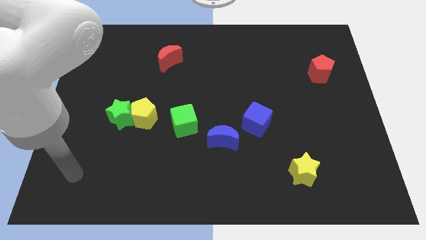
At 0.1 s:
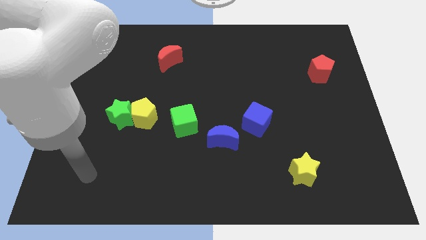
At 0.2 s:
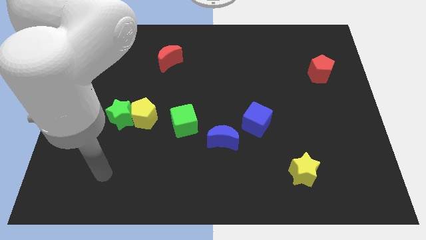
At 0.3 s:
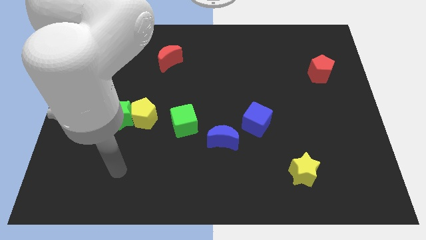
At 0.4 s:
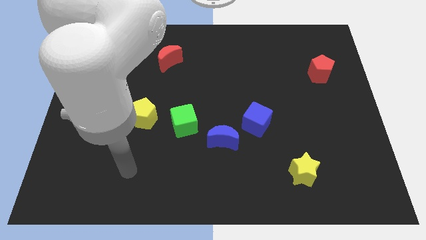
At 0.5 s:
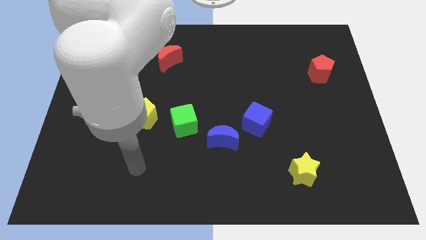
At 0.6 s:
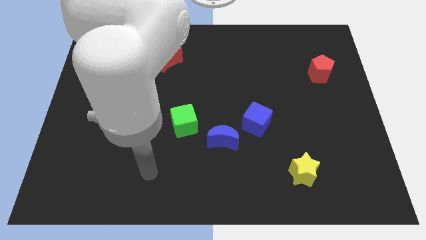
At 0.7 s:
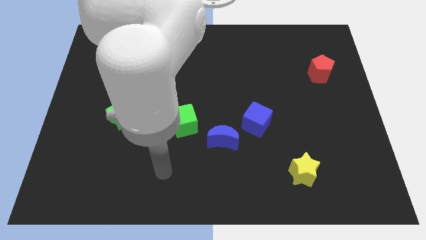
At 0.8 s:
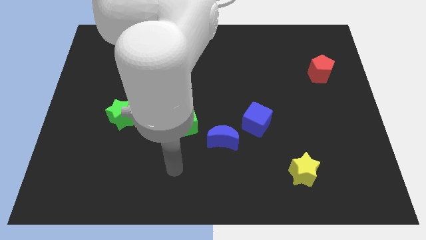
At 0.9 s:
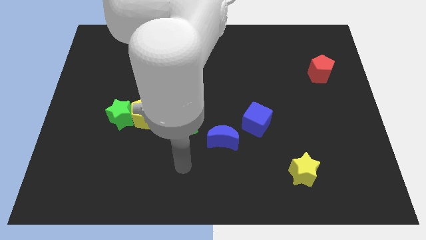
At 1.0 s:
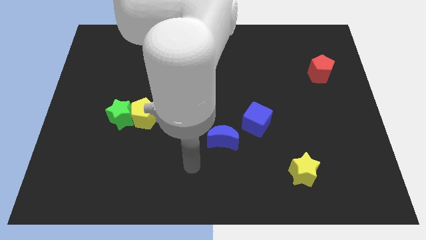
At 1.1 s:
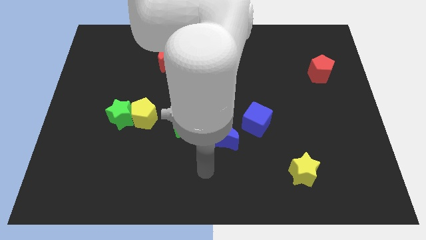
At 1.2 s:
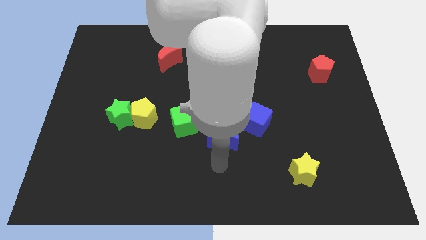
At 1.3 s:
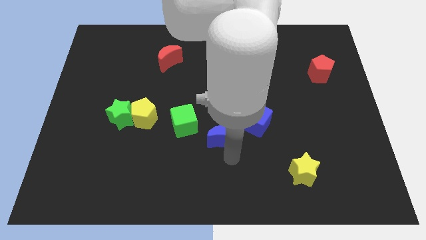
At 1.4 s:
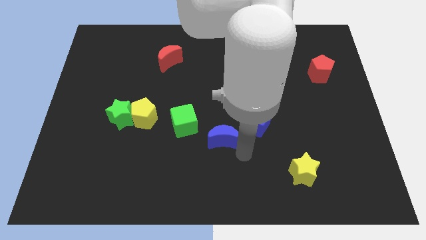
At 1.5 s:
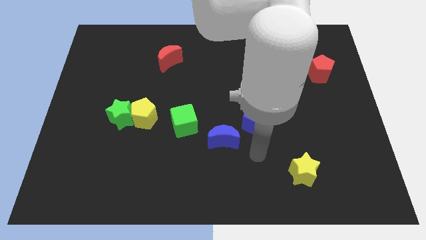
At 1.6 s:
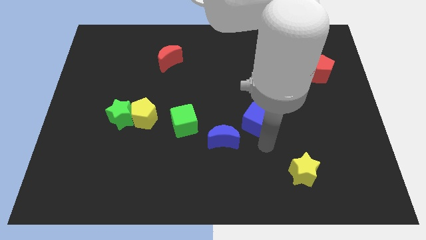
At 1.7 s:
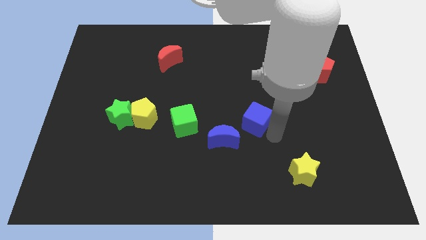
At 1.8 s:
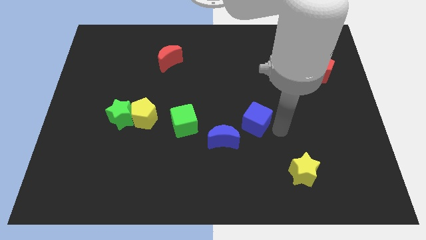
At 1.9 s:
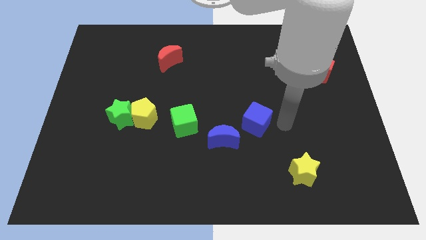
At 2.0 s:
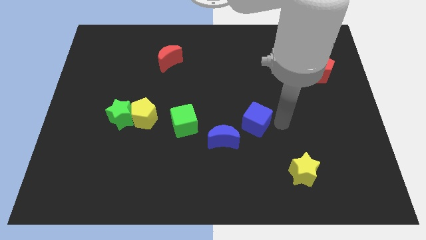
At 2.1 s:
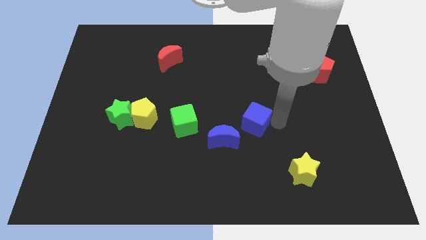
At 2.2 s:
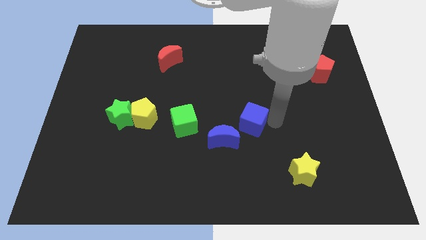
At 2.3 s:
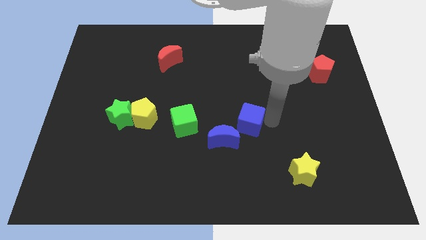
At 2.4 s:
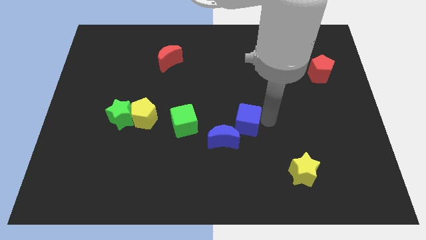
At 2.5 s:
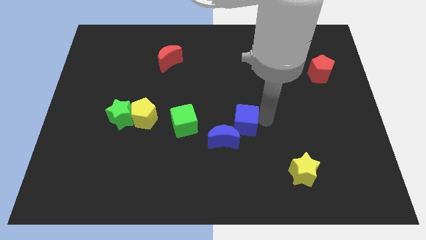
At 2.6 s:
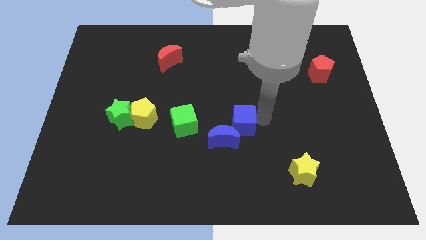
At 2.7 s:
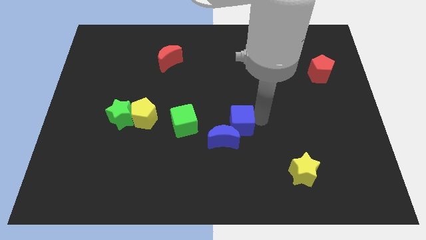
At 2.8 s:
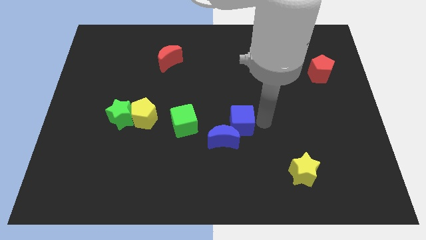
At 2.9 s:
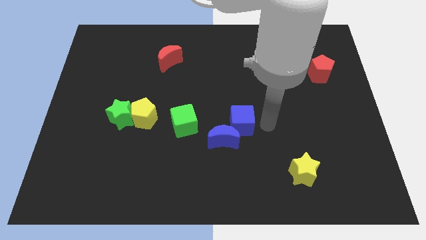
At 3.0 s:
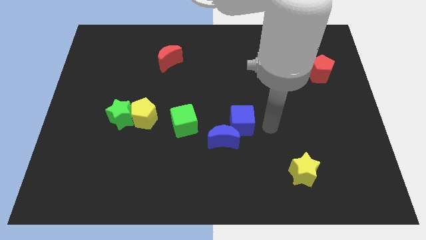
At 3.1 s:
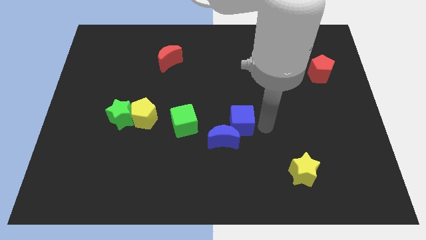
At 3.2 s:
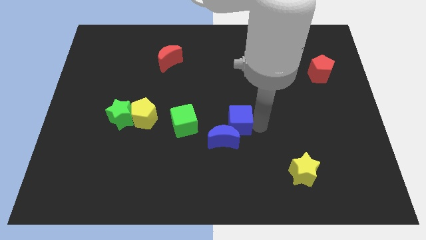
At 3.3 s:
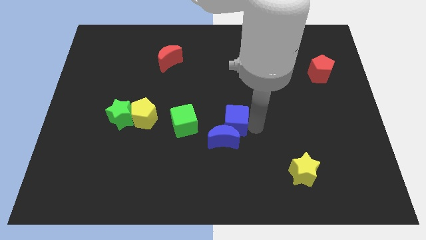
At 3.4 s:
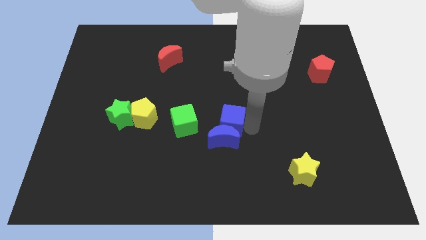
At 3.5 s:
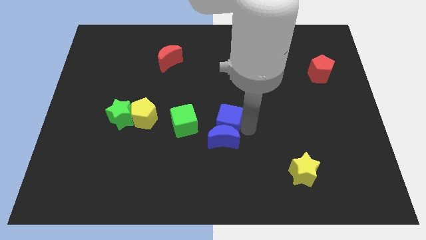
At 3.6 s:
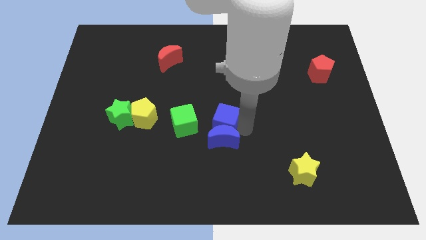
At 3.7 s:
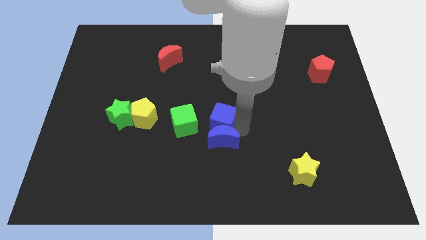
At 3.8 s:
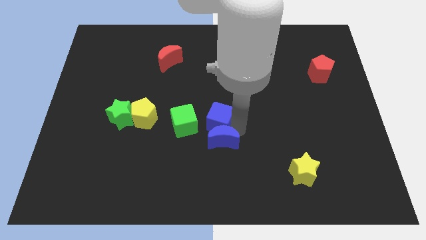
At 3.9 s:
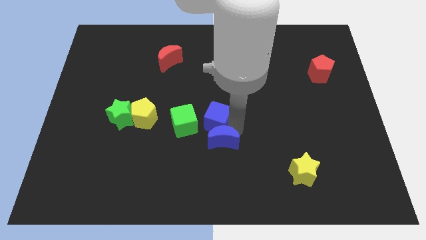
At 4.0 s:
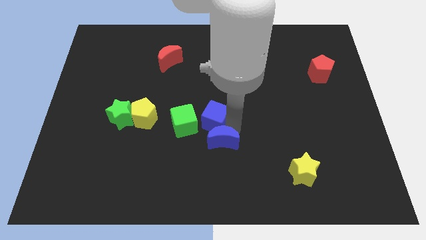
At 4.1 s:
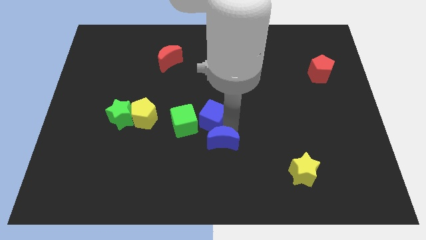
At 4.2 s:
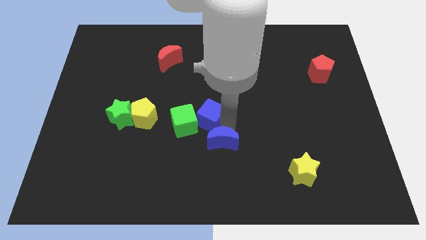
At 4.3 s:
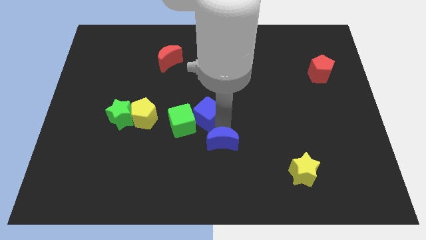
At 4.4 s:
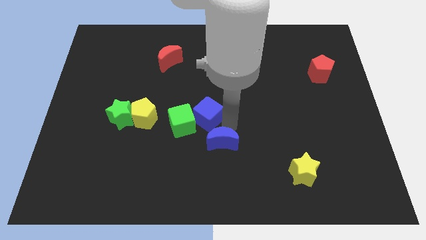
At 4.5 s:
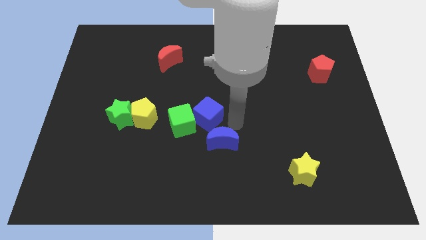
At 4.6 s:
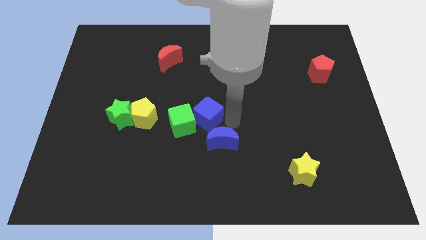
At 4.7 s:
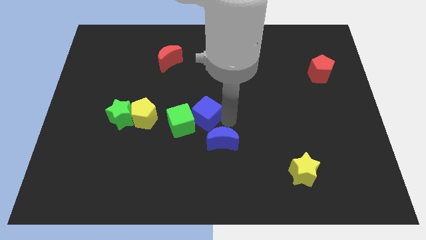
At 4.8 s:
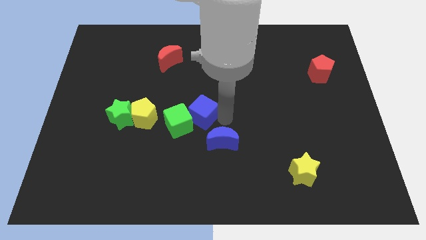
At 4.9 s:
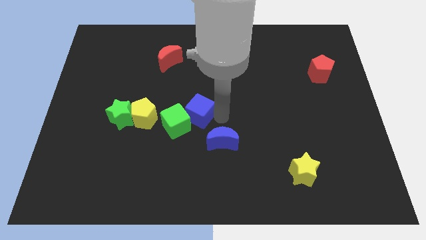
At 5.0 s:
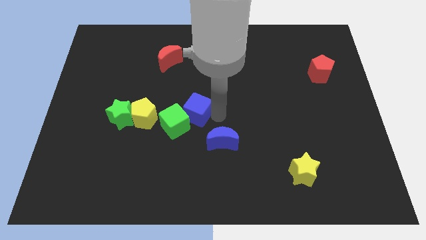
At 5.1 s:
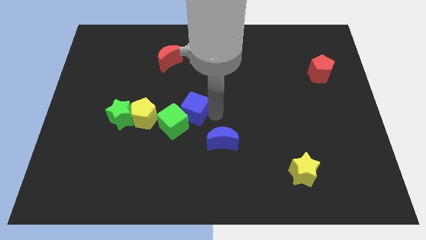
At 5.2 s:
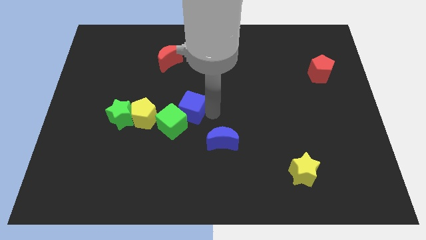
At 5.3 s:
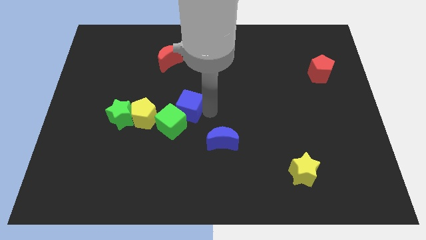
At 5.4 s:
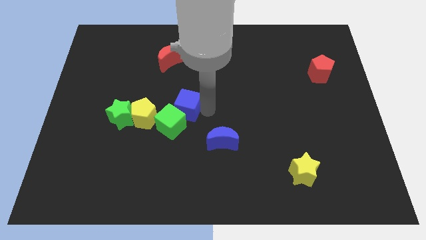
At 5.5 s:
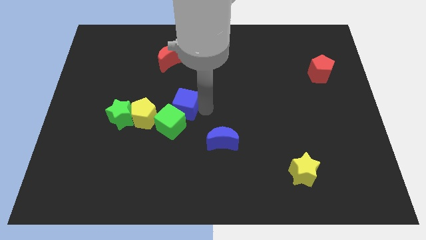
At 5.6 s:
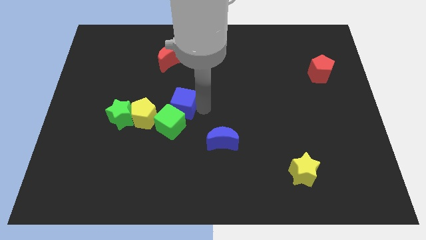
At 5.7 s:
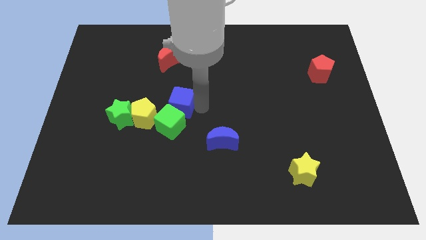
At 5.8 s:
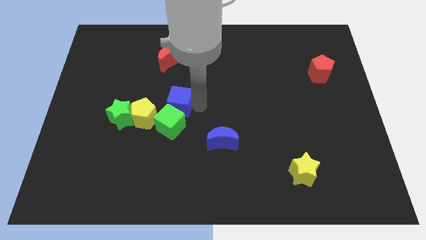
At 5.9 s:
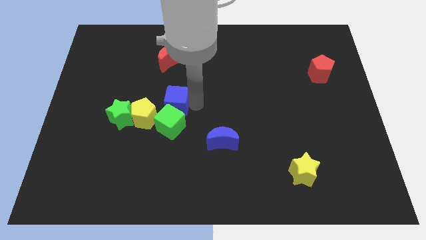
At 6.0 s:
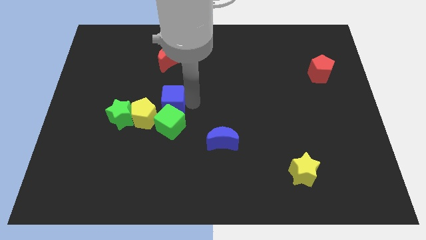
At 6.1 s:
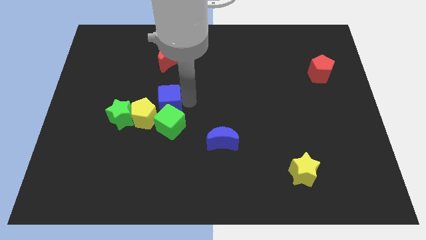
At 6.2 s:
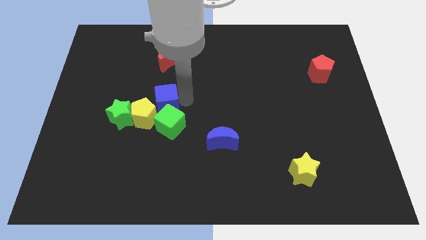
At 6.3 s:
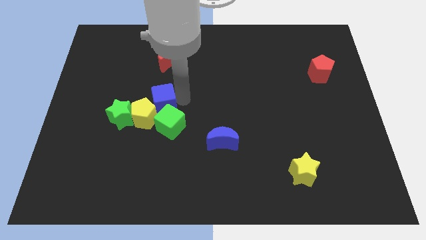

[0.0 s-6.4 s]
push the blue cube next to the yellow pentagon
